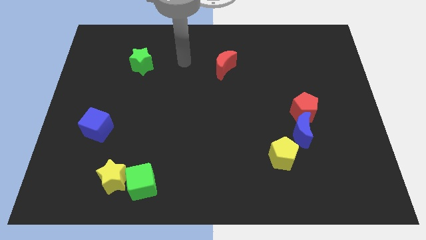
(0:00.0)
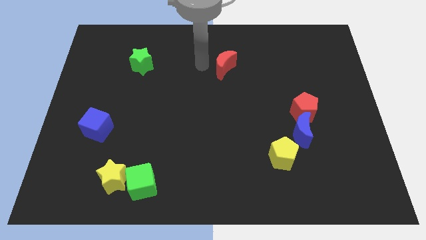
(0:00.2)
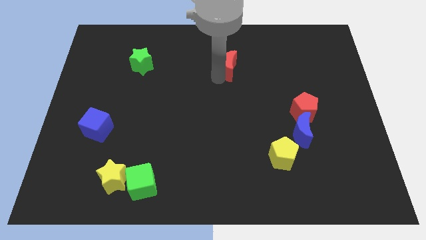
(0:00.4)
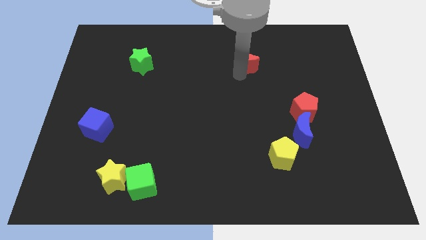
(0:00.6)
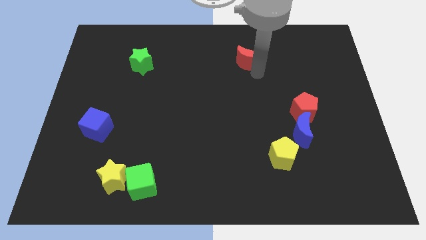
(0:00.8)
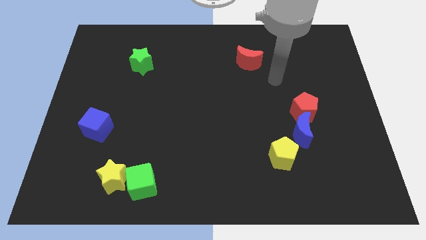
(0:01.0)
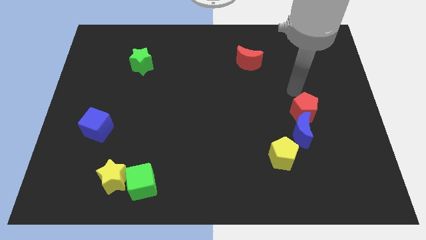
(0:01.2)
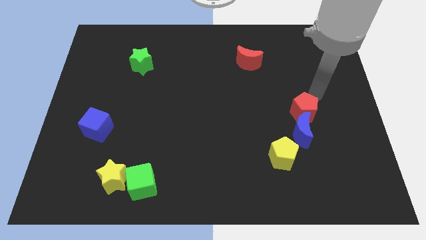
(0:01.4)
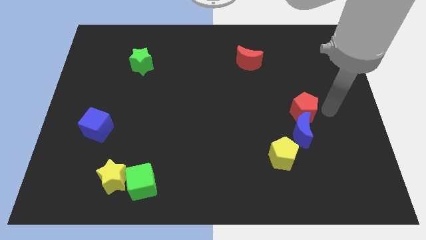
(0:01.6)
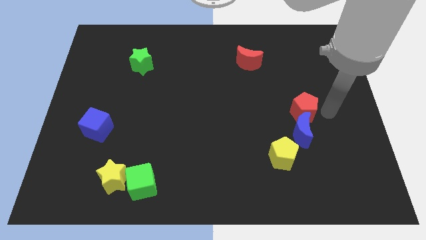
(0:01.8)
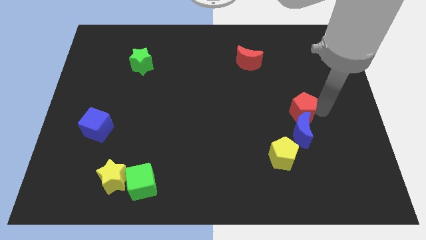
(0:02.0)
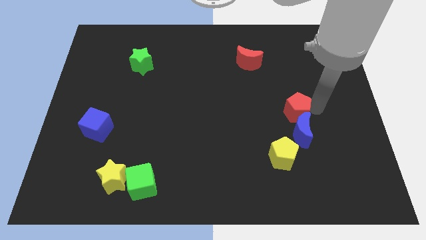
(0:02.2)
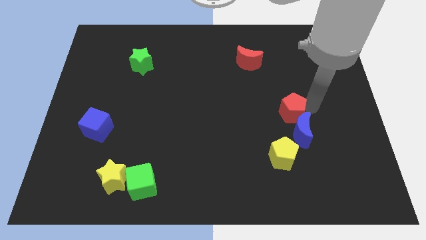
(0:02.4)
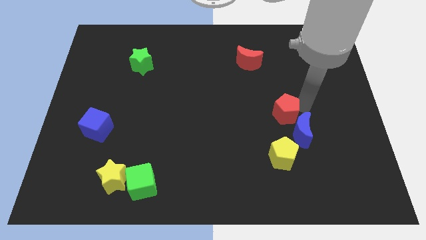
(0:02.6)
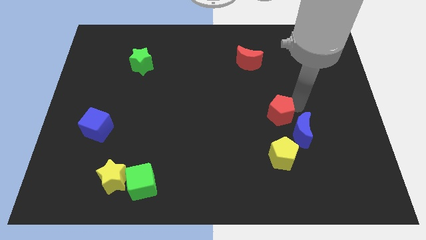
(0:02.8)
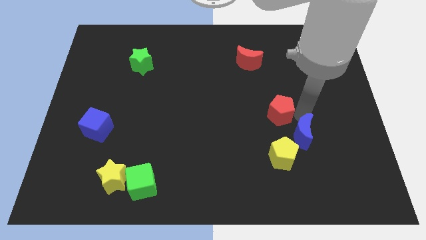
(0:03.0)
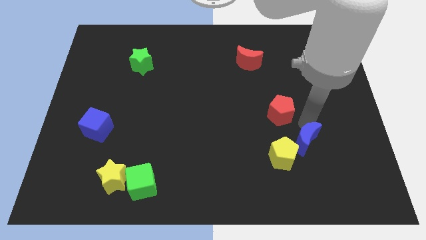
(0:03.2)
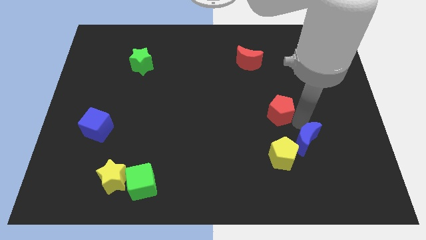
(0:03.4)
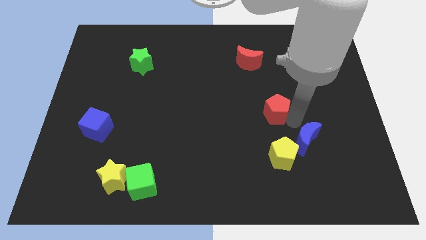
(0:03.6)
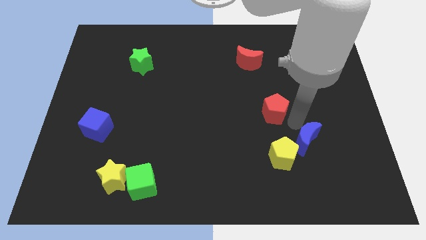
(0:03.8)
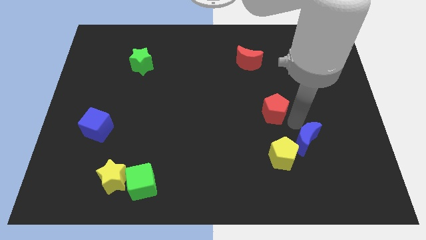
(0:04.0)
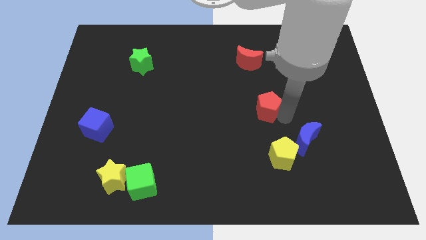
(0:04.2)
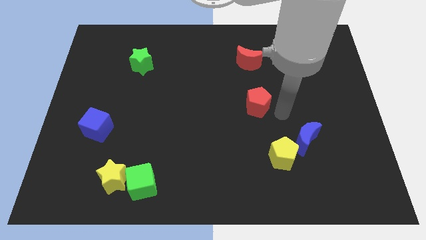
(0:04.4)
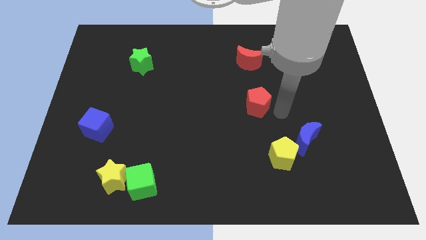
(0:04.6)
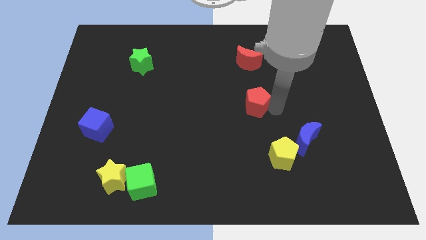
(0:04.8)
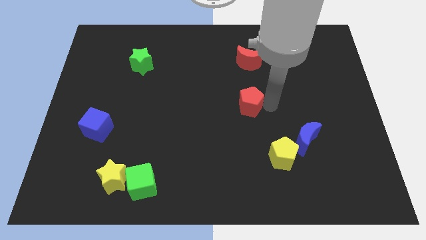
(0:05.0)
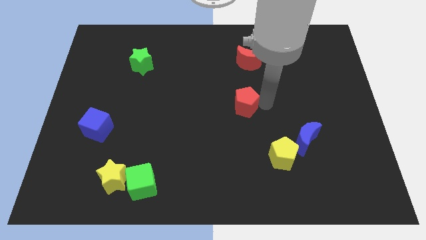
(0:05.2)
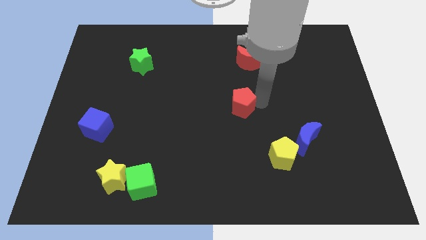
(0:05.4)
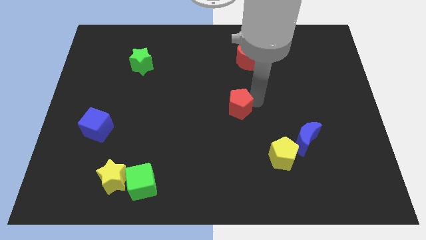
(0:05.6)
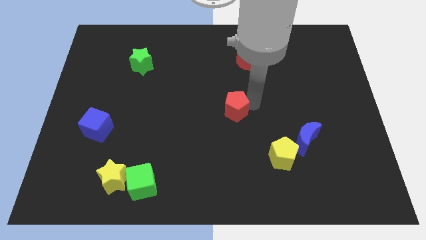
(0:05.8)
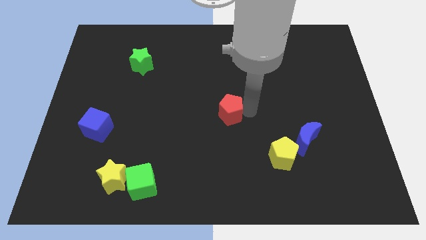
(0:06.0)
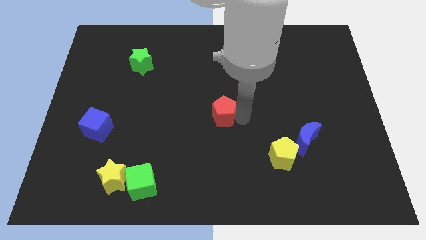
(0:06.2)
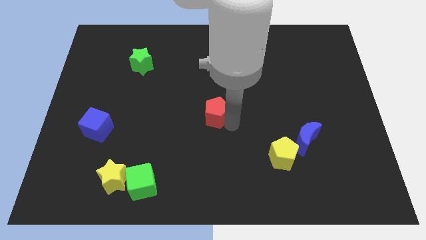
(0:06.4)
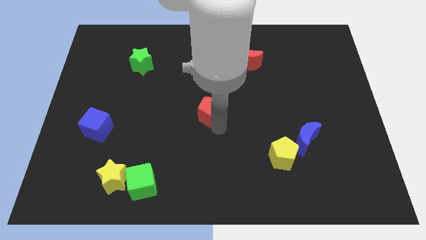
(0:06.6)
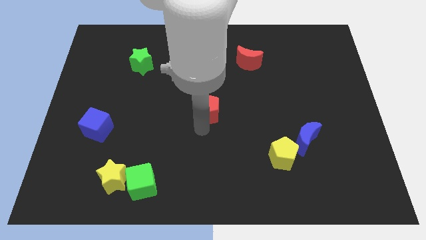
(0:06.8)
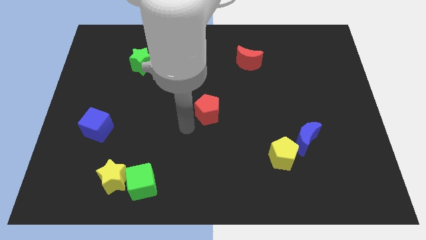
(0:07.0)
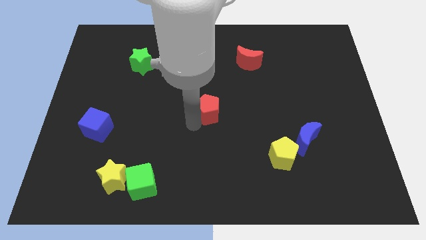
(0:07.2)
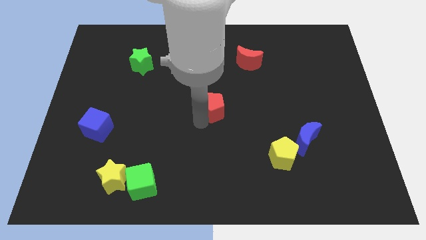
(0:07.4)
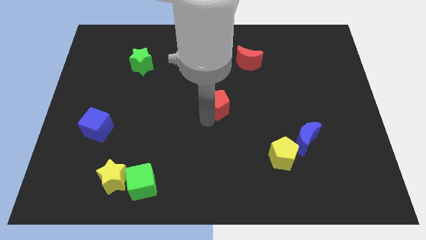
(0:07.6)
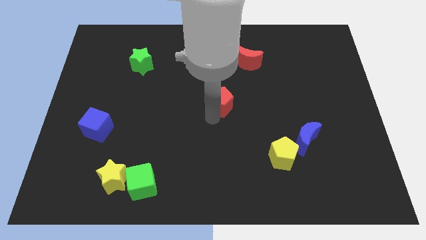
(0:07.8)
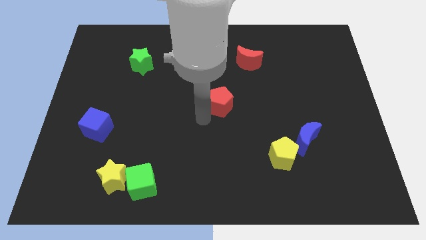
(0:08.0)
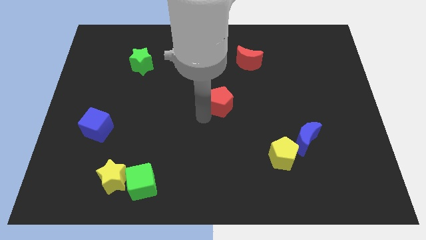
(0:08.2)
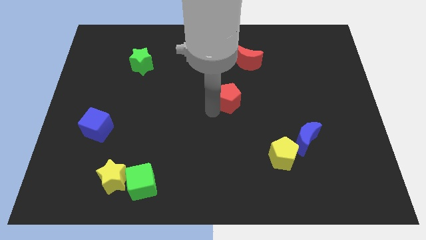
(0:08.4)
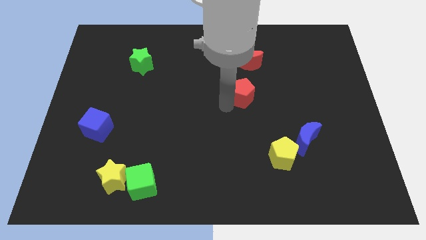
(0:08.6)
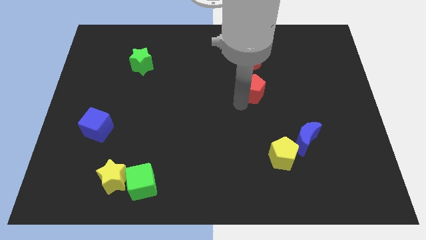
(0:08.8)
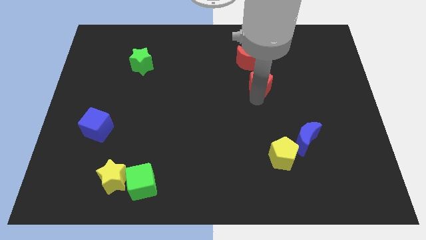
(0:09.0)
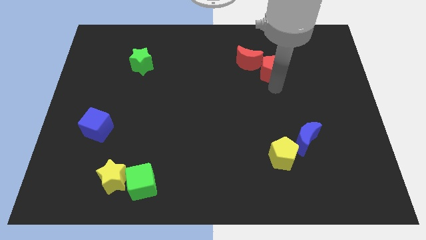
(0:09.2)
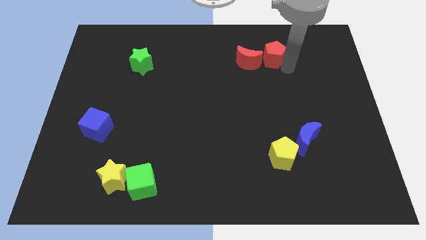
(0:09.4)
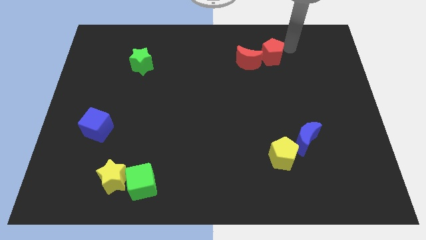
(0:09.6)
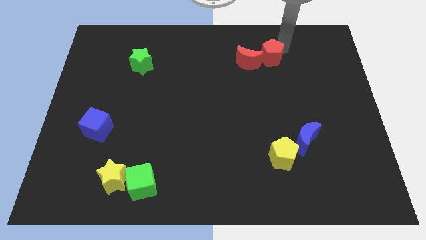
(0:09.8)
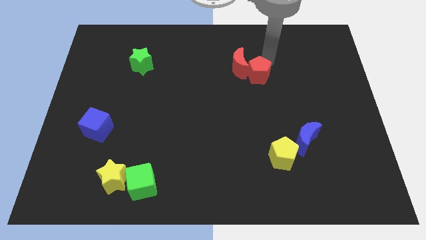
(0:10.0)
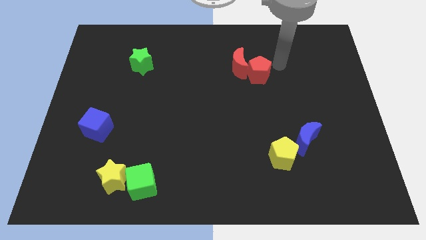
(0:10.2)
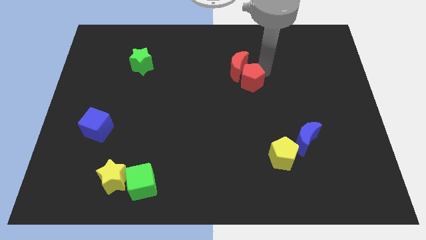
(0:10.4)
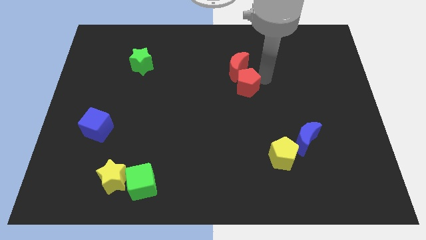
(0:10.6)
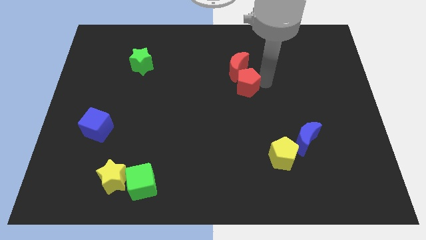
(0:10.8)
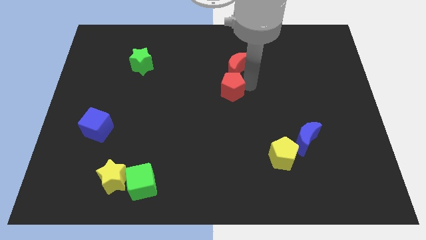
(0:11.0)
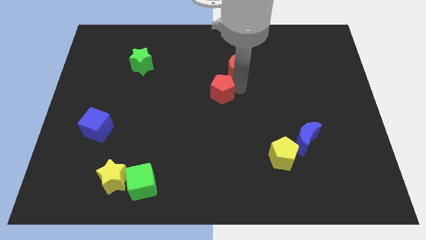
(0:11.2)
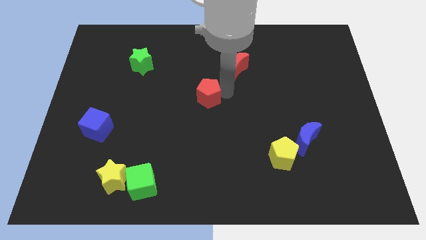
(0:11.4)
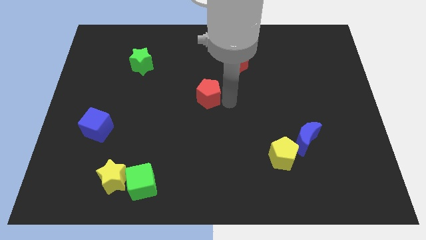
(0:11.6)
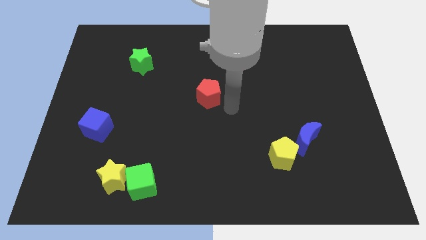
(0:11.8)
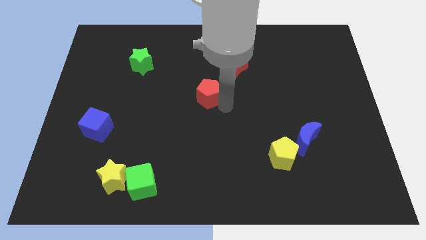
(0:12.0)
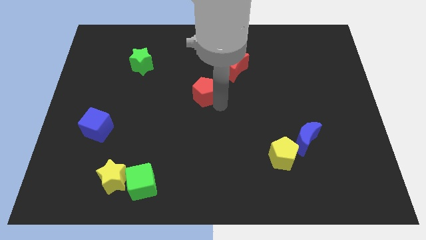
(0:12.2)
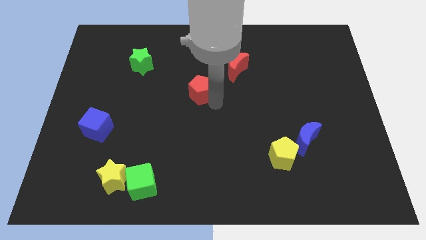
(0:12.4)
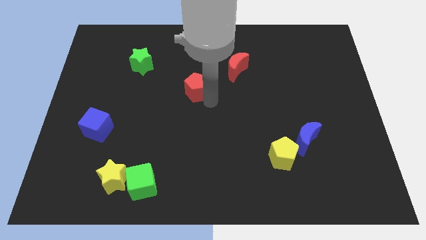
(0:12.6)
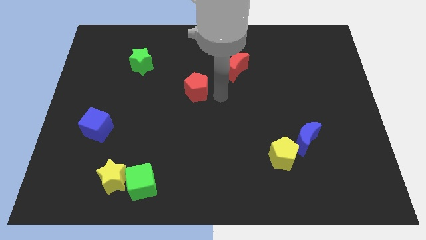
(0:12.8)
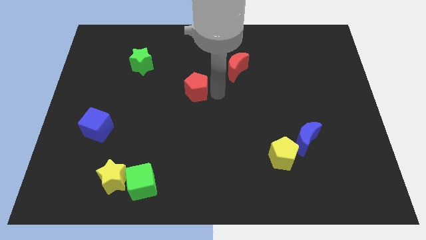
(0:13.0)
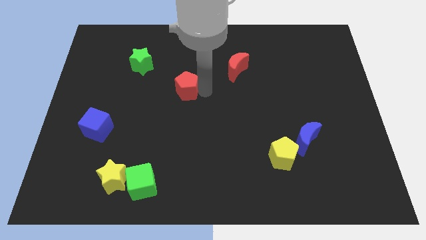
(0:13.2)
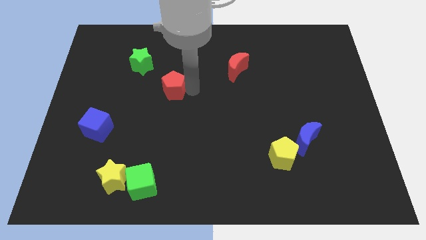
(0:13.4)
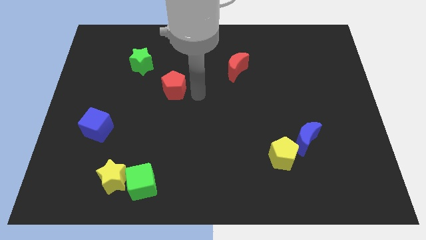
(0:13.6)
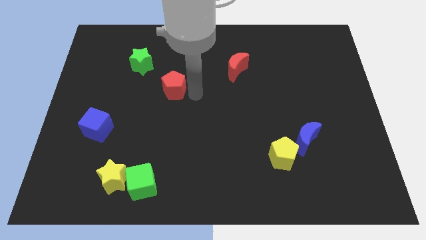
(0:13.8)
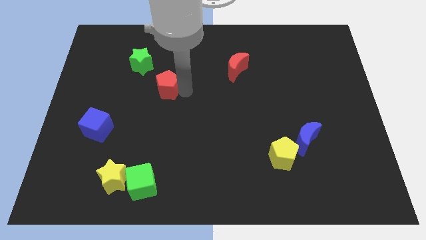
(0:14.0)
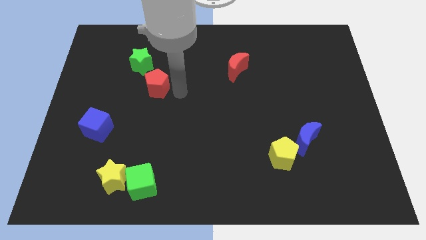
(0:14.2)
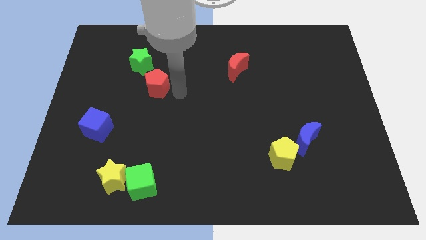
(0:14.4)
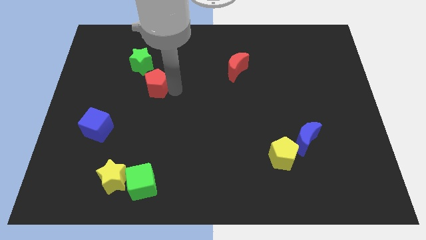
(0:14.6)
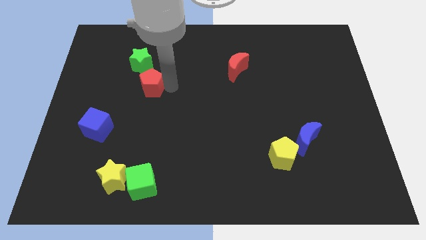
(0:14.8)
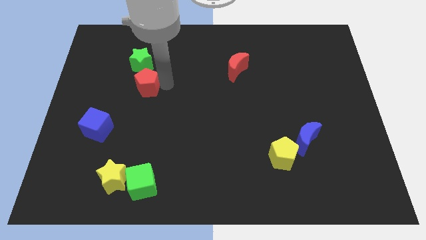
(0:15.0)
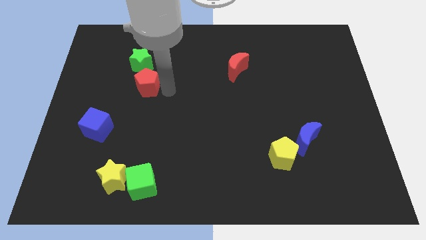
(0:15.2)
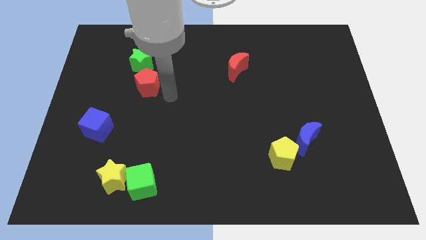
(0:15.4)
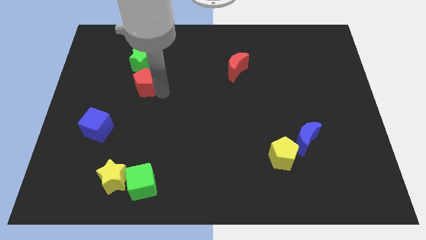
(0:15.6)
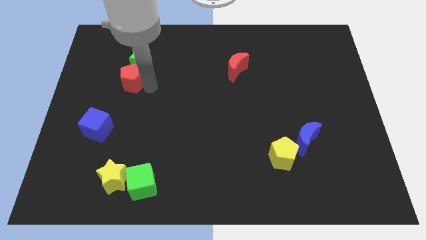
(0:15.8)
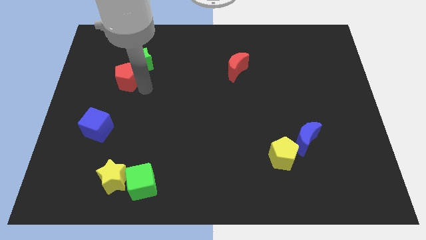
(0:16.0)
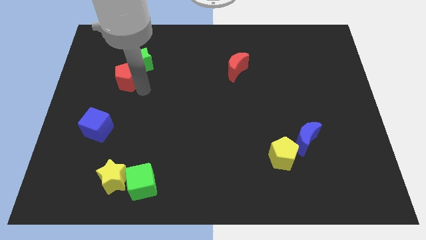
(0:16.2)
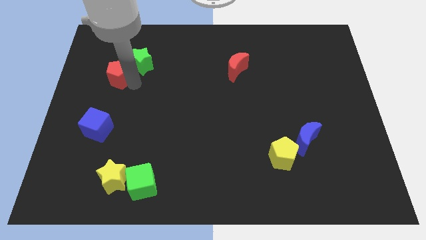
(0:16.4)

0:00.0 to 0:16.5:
slide the red pentagon left of the green star
